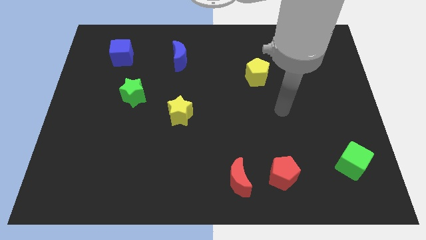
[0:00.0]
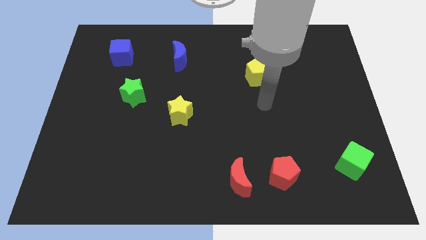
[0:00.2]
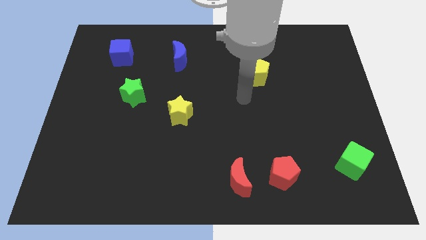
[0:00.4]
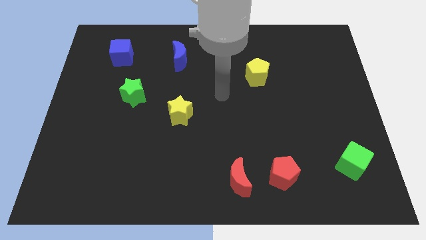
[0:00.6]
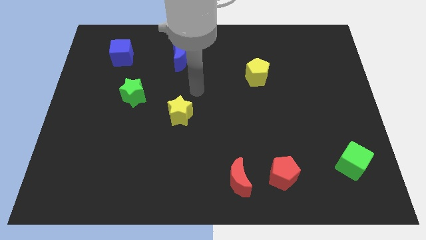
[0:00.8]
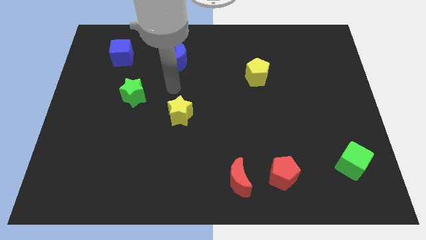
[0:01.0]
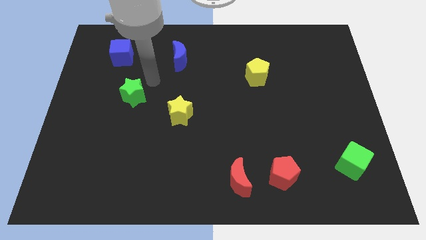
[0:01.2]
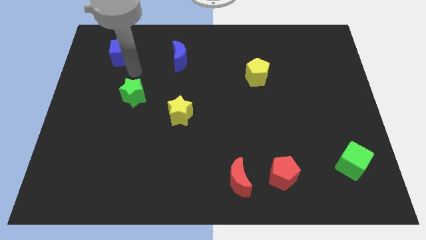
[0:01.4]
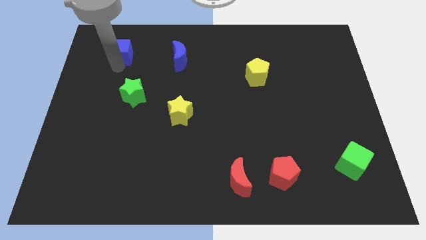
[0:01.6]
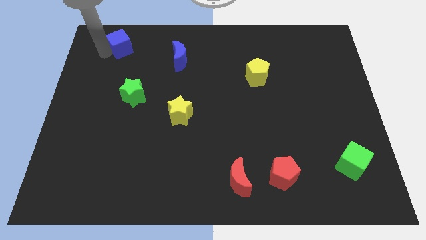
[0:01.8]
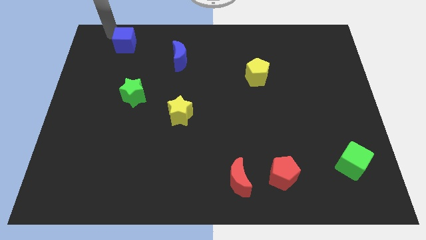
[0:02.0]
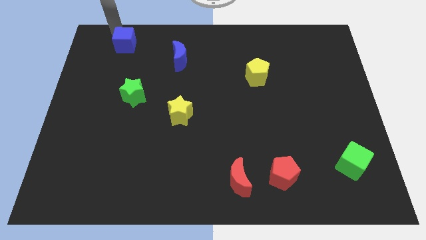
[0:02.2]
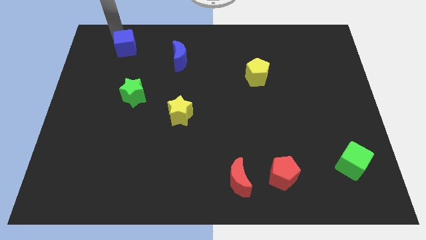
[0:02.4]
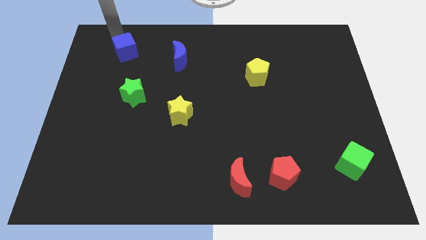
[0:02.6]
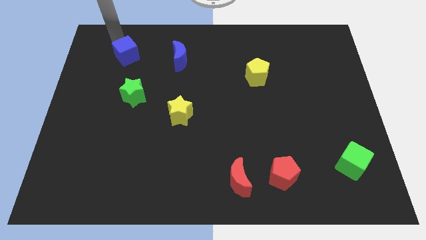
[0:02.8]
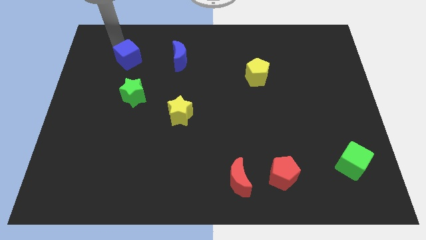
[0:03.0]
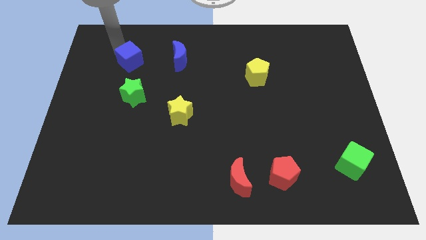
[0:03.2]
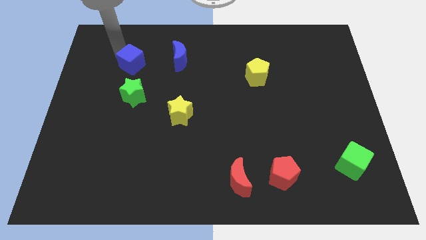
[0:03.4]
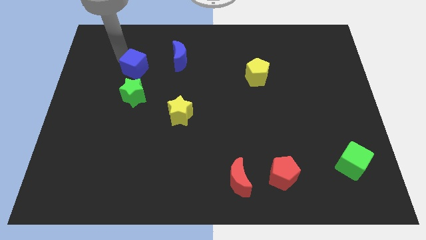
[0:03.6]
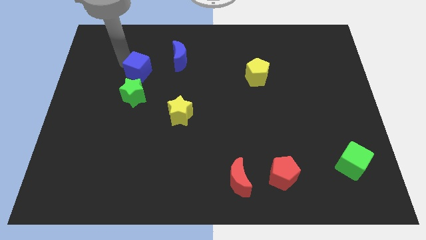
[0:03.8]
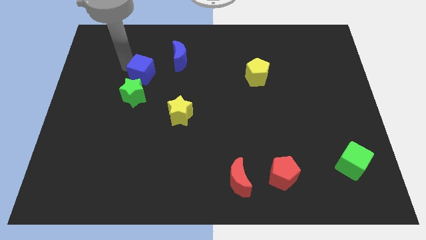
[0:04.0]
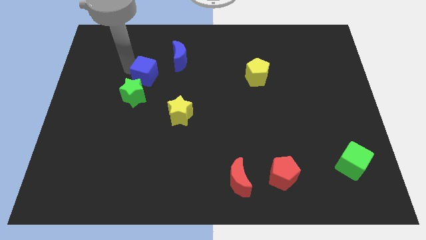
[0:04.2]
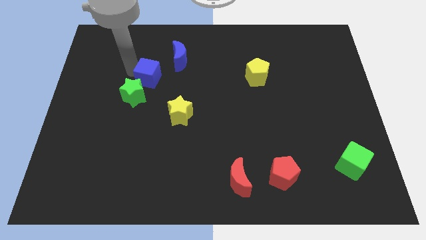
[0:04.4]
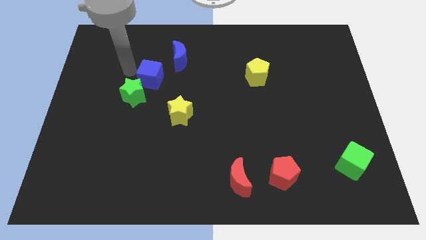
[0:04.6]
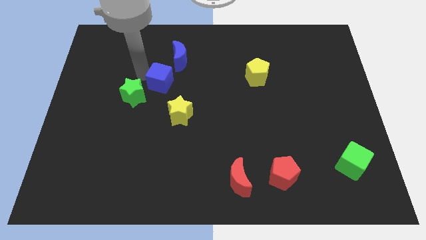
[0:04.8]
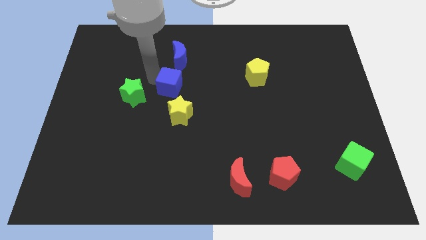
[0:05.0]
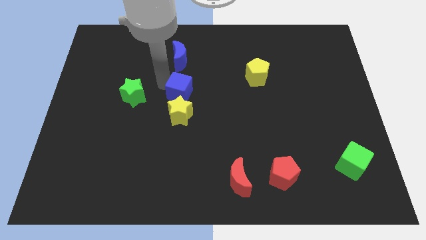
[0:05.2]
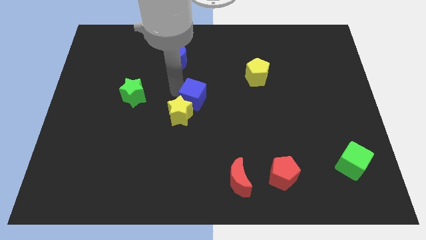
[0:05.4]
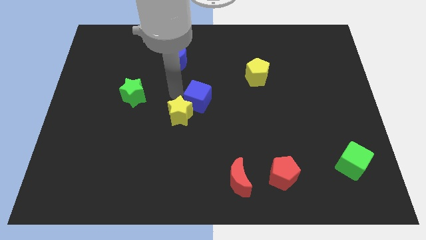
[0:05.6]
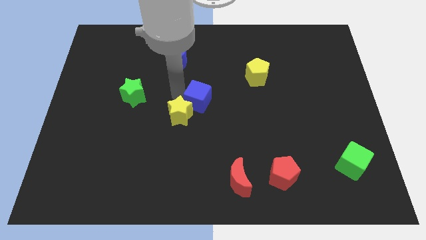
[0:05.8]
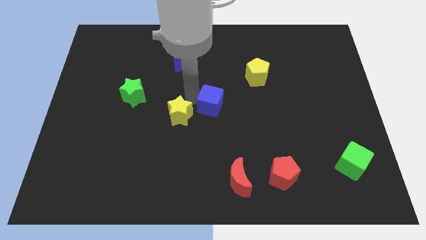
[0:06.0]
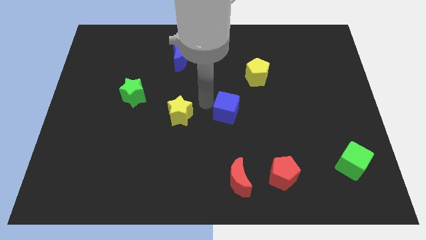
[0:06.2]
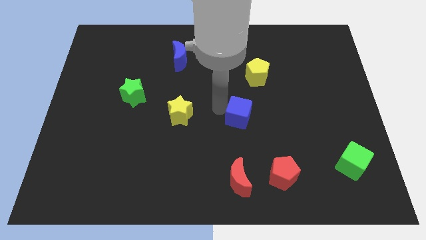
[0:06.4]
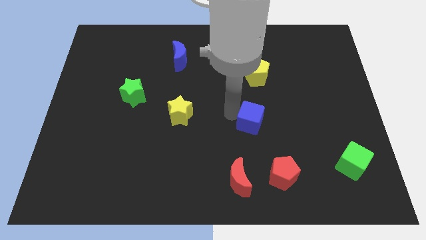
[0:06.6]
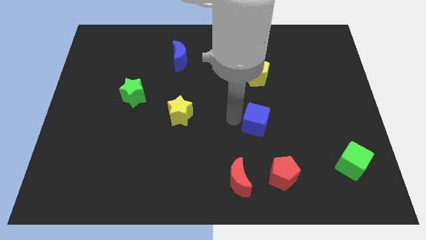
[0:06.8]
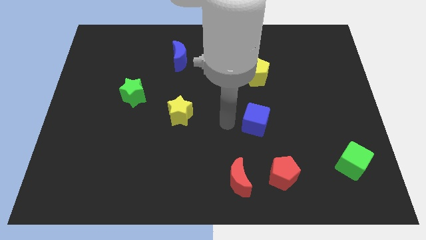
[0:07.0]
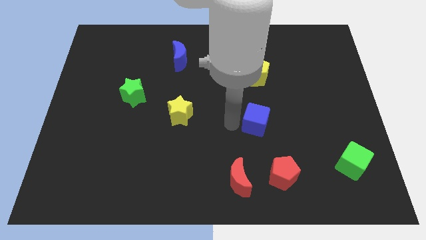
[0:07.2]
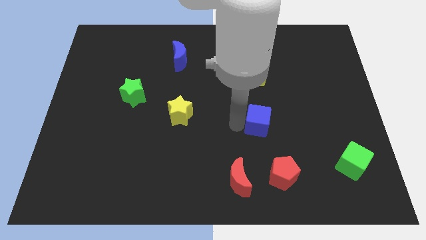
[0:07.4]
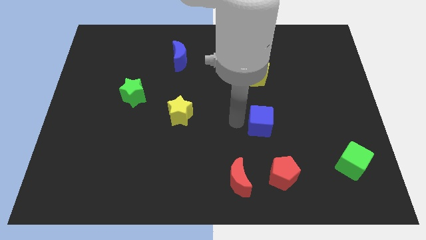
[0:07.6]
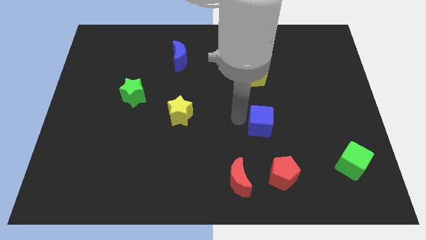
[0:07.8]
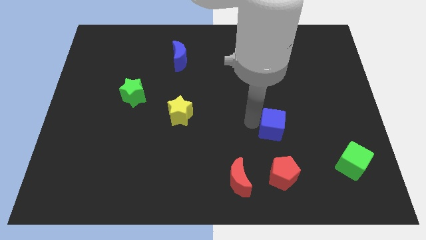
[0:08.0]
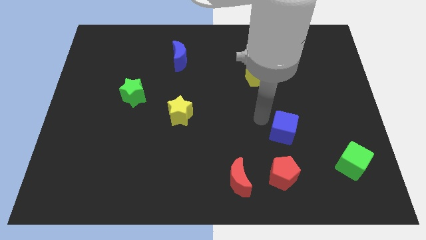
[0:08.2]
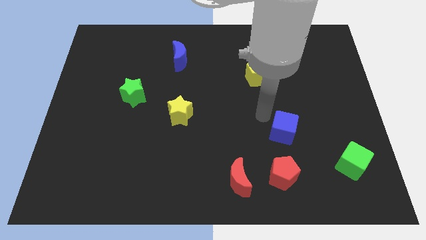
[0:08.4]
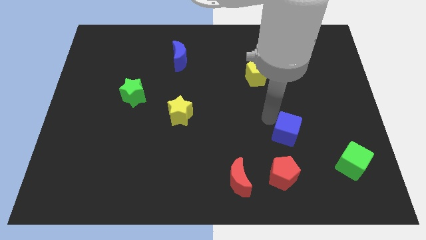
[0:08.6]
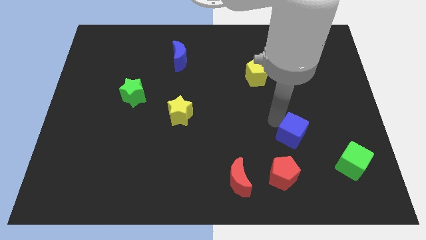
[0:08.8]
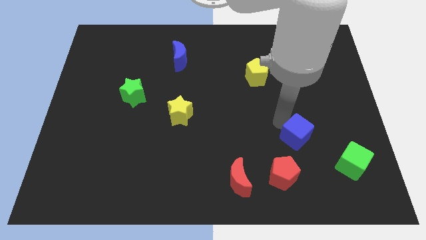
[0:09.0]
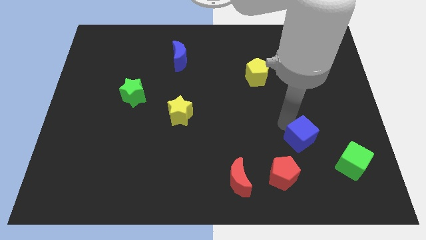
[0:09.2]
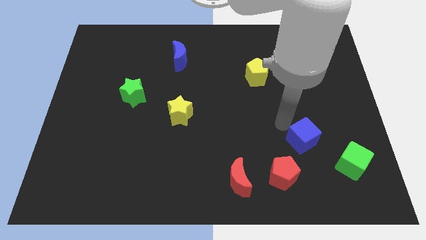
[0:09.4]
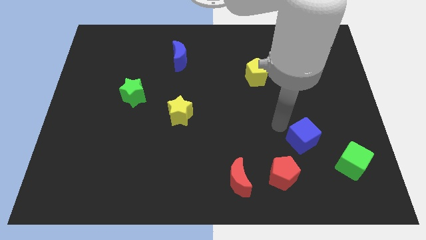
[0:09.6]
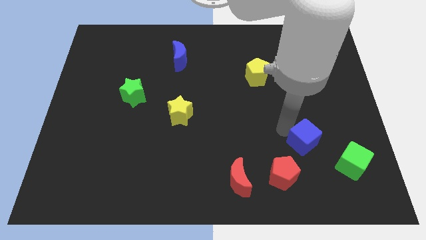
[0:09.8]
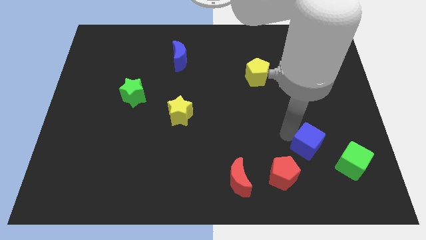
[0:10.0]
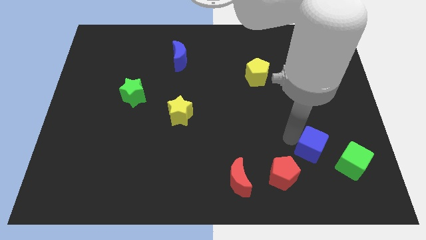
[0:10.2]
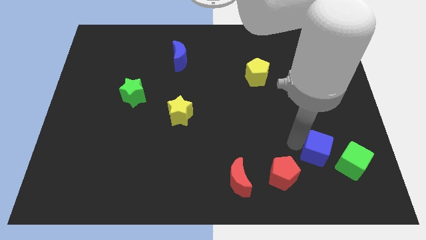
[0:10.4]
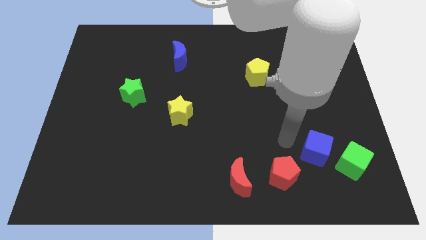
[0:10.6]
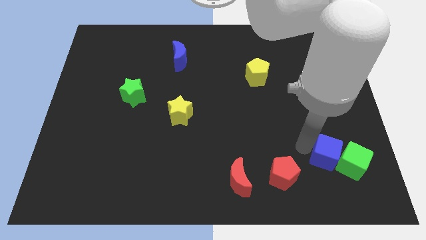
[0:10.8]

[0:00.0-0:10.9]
put the blue cube next to the green cube

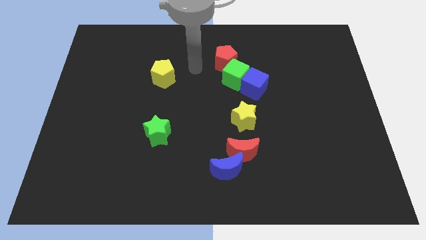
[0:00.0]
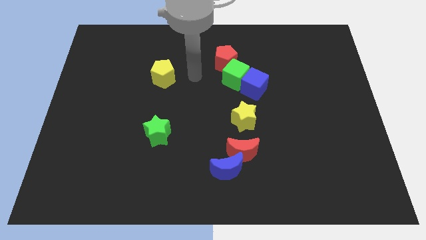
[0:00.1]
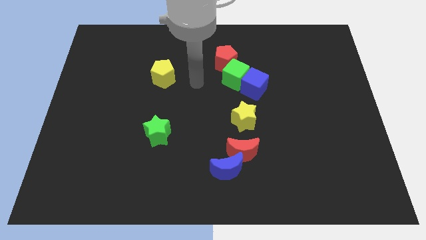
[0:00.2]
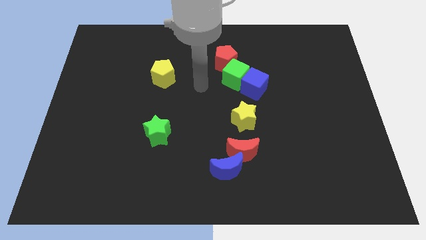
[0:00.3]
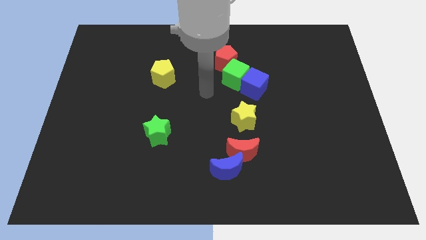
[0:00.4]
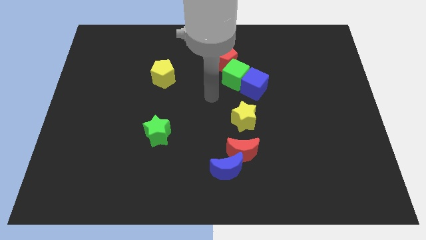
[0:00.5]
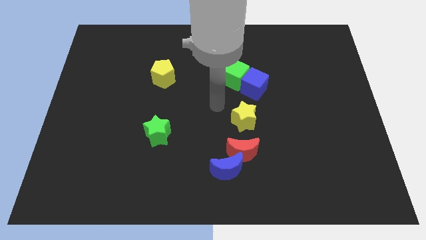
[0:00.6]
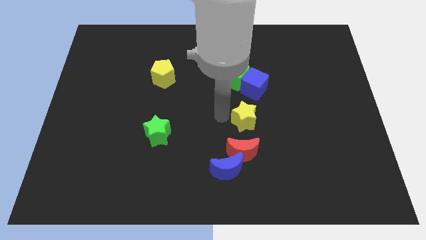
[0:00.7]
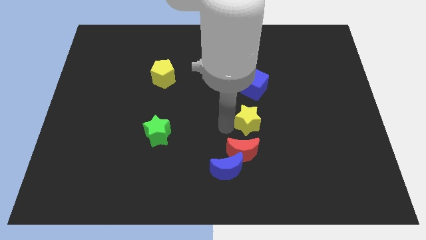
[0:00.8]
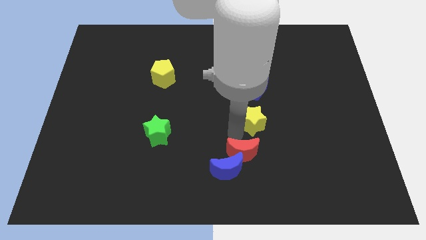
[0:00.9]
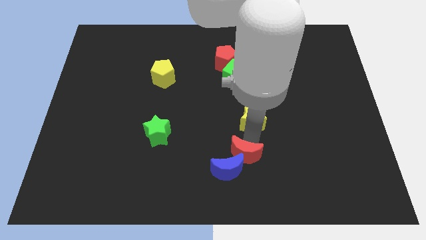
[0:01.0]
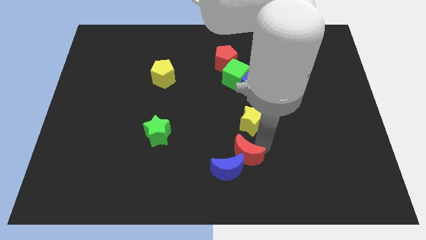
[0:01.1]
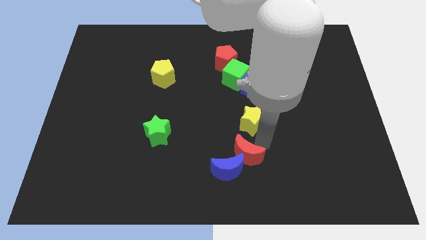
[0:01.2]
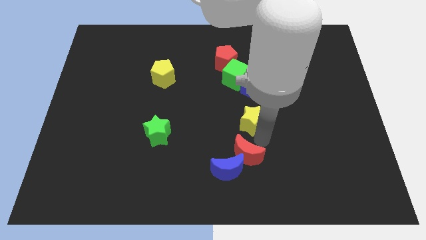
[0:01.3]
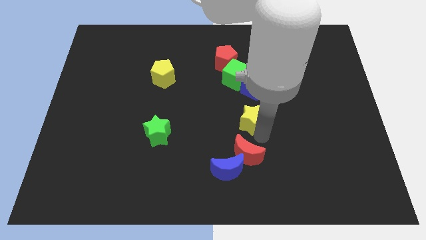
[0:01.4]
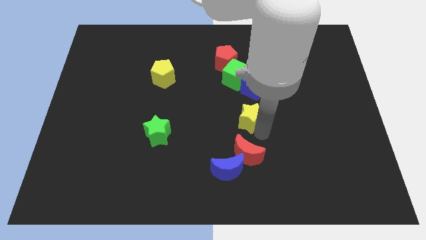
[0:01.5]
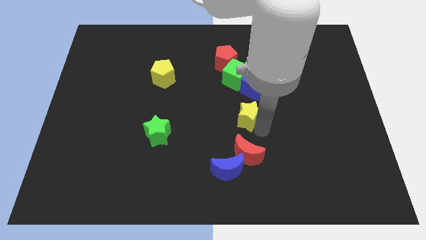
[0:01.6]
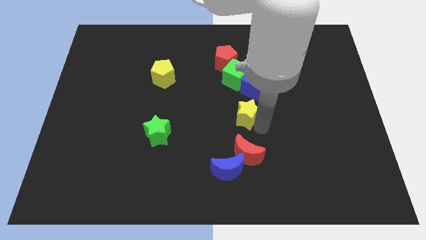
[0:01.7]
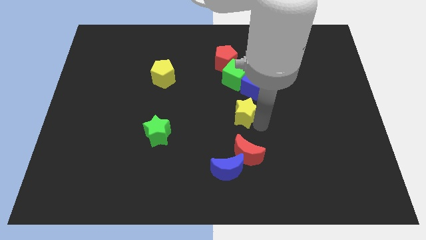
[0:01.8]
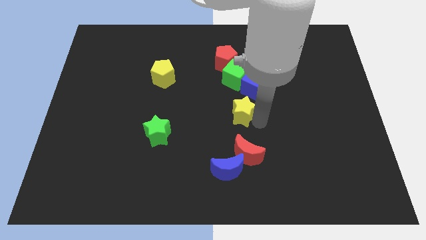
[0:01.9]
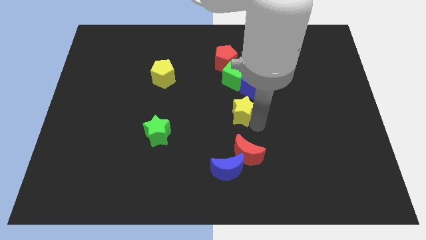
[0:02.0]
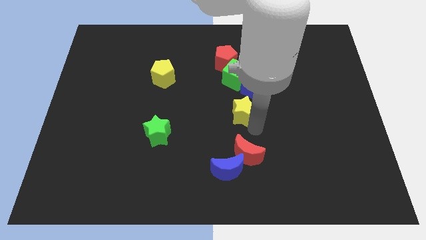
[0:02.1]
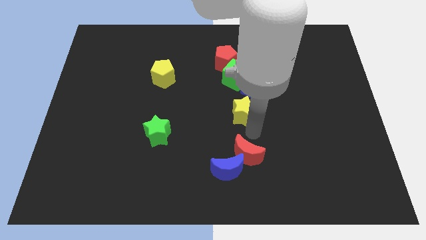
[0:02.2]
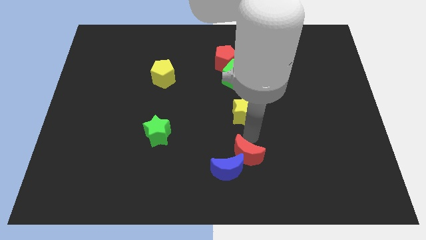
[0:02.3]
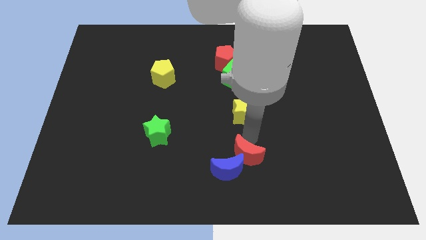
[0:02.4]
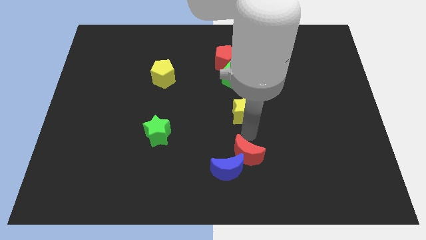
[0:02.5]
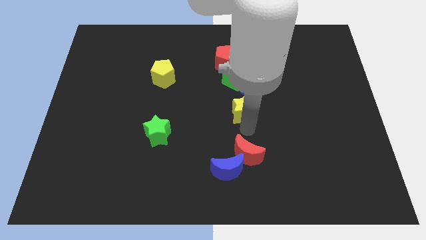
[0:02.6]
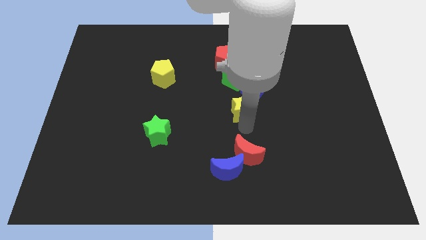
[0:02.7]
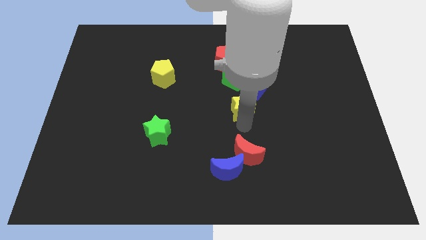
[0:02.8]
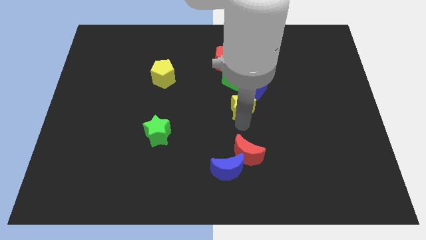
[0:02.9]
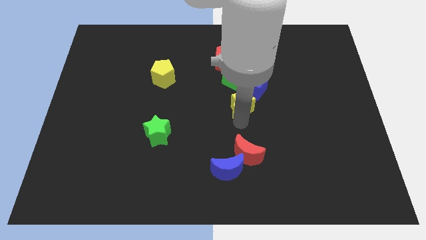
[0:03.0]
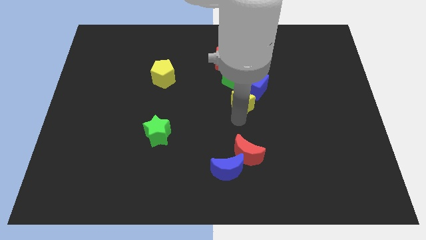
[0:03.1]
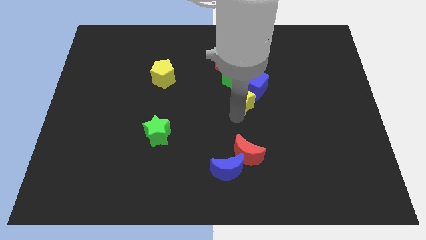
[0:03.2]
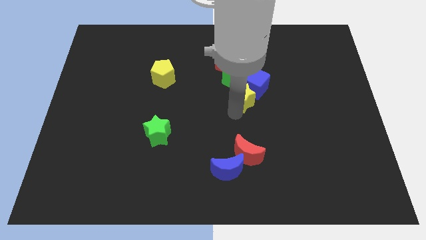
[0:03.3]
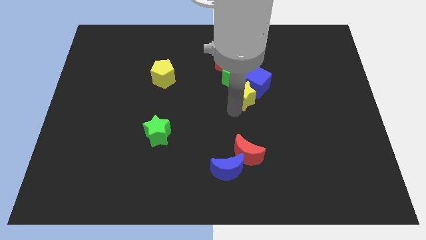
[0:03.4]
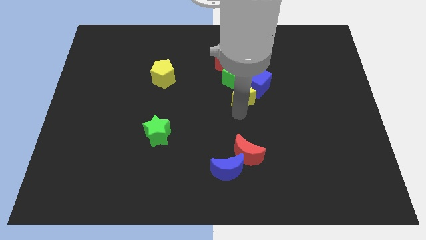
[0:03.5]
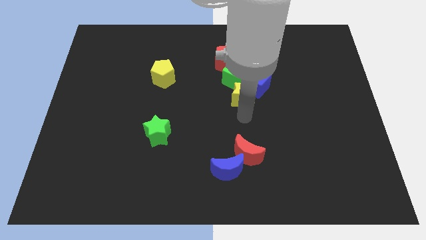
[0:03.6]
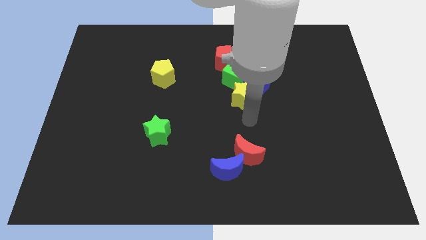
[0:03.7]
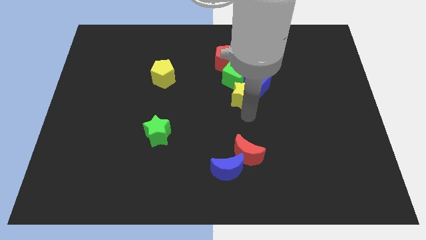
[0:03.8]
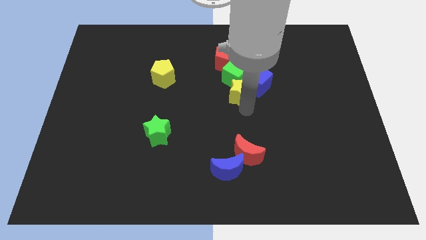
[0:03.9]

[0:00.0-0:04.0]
put the yellow star to the green cube
